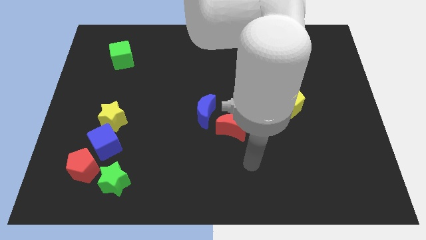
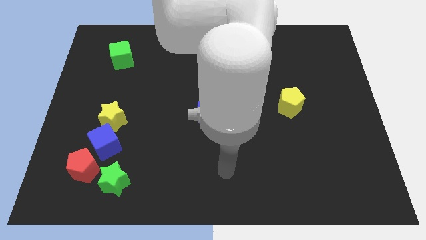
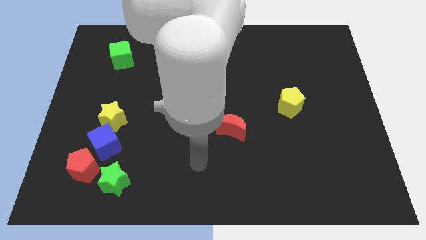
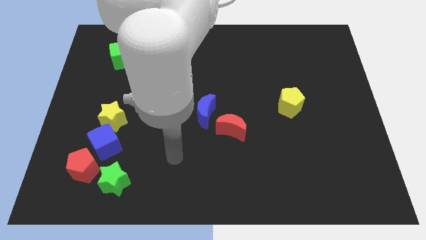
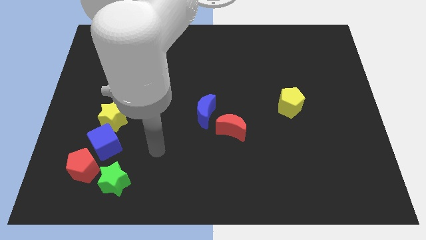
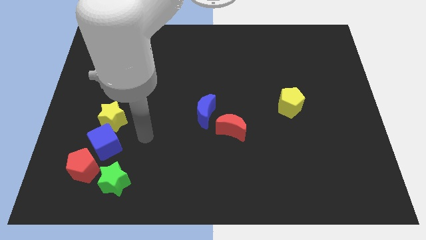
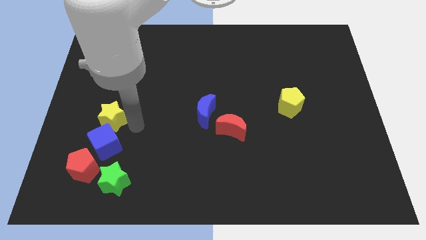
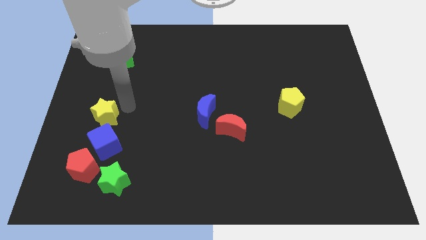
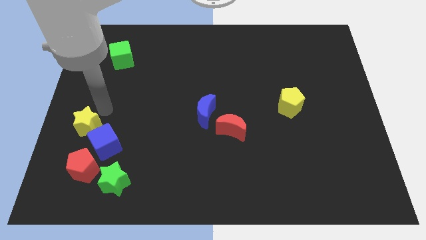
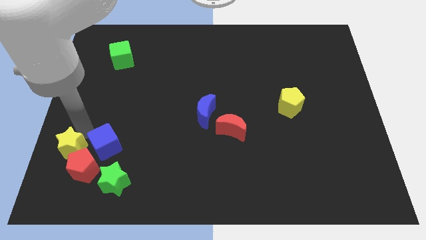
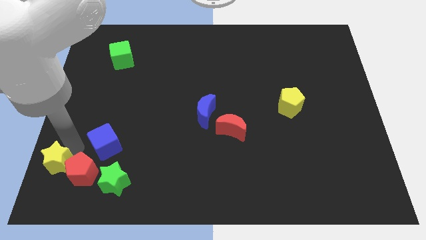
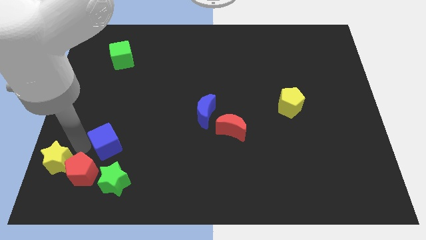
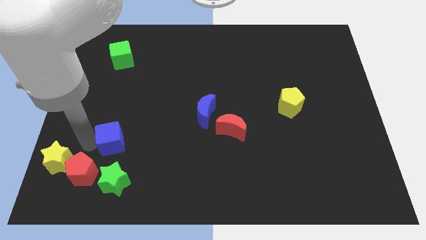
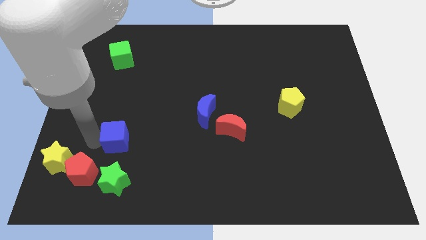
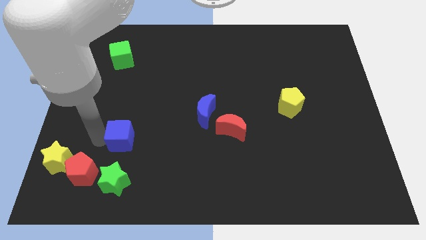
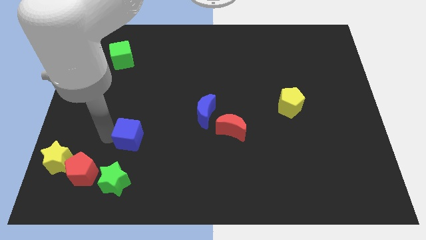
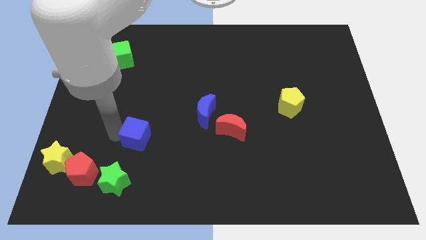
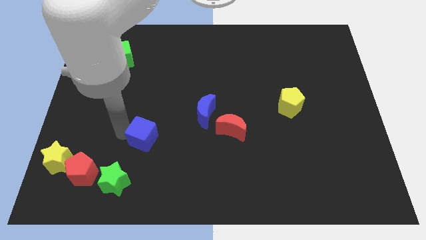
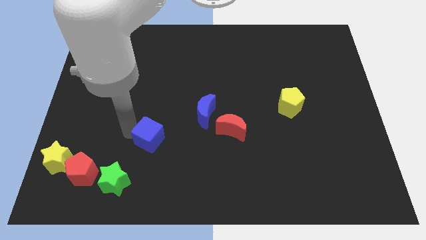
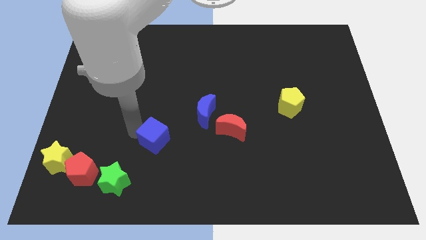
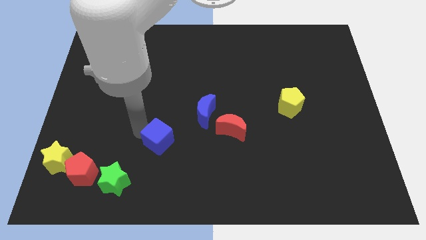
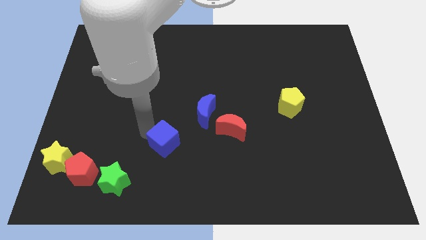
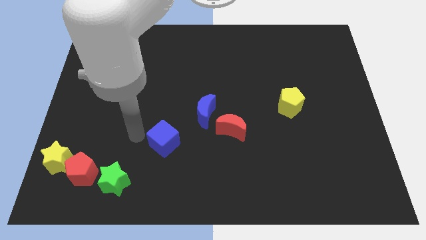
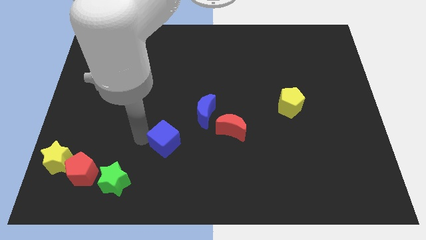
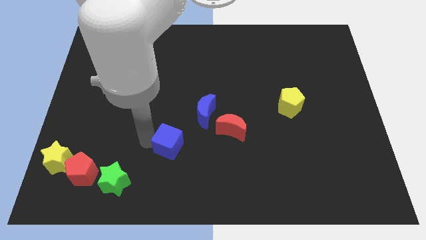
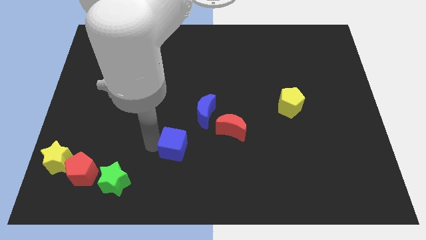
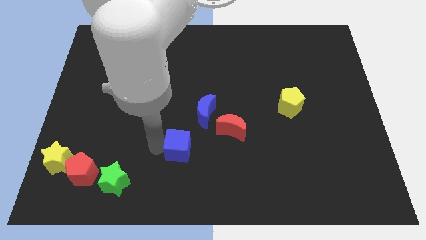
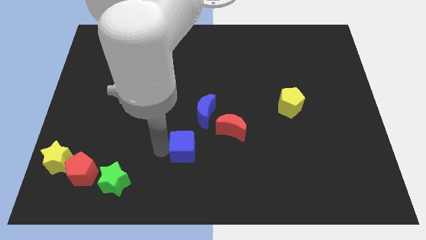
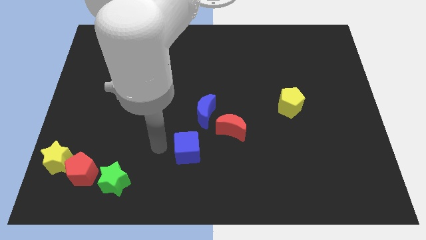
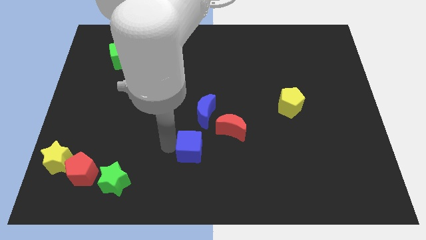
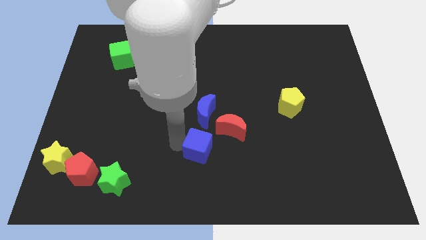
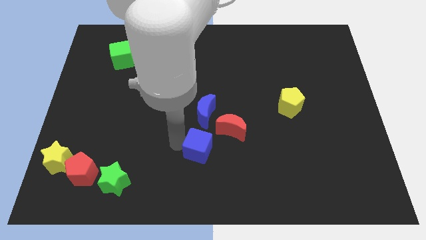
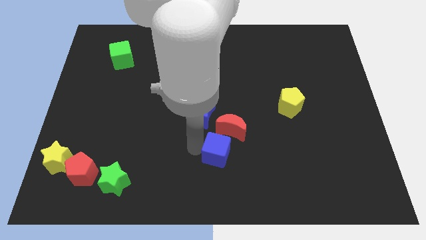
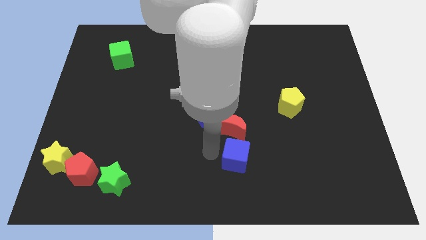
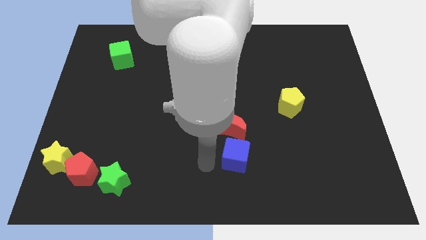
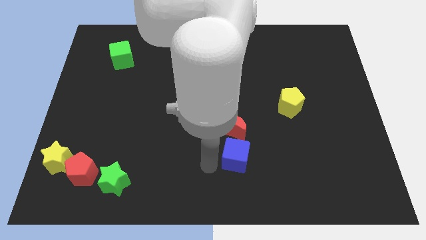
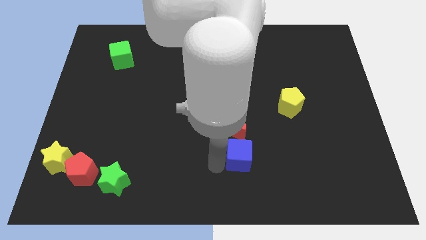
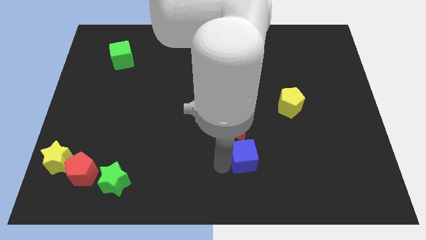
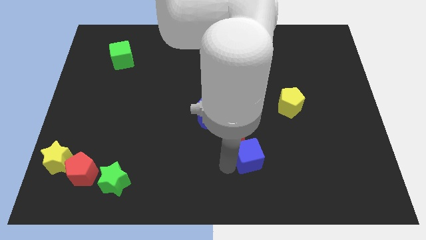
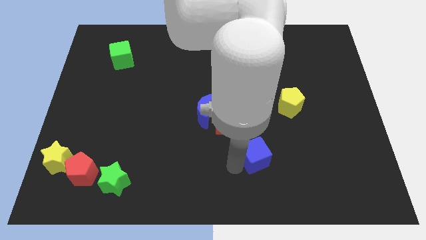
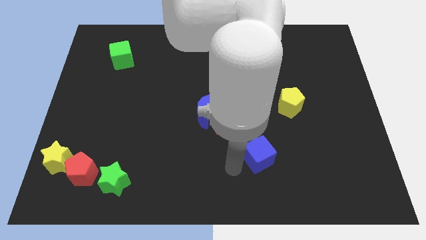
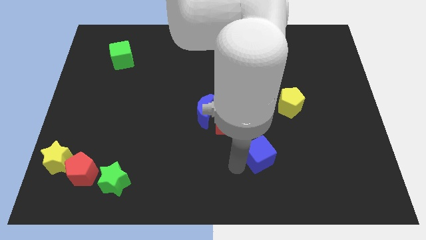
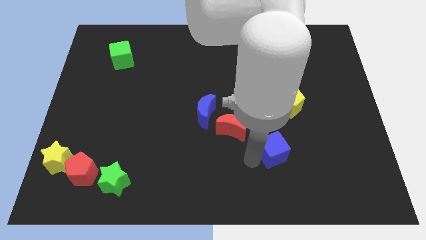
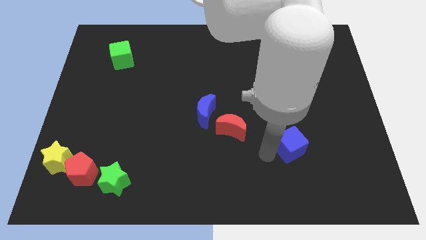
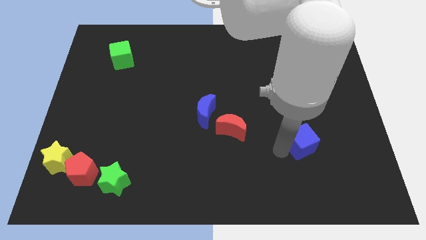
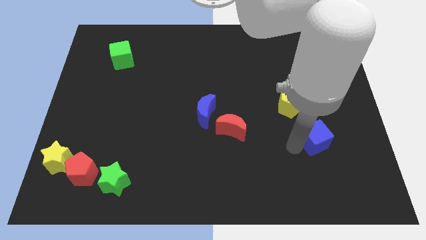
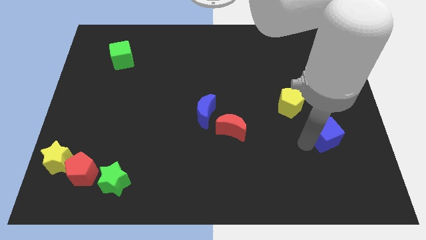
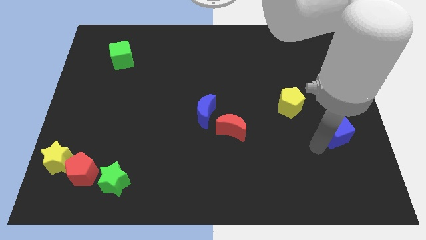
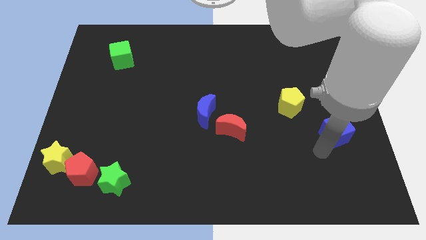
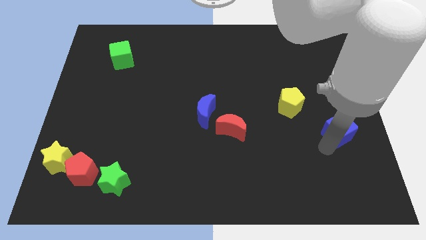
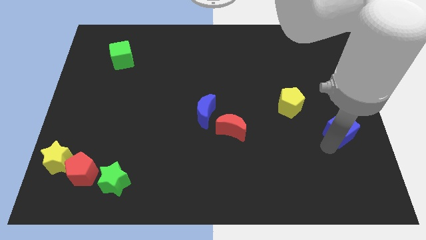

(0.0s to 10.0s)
slide the blue cube to the right side of the board

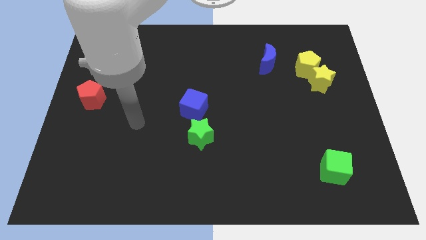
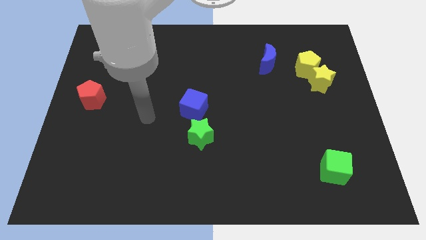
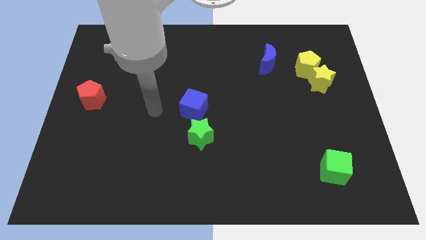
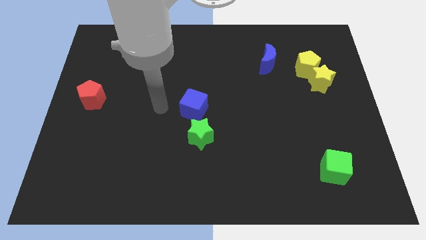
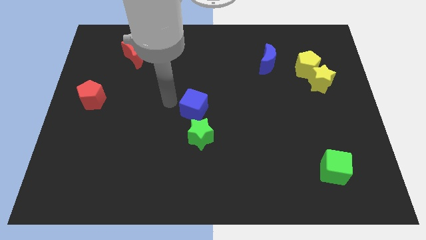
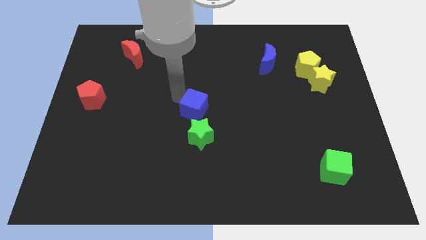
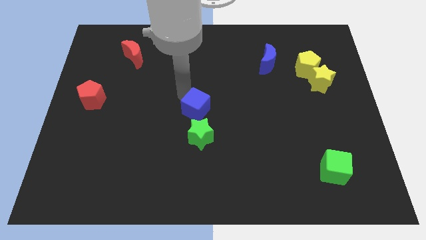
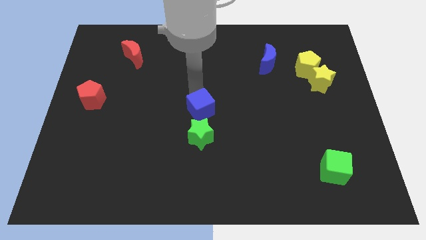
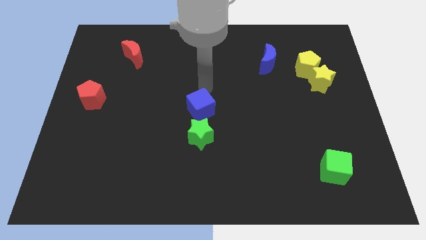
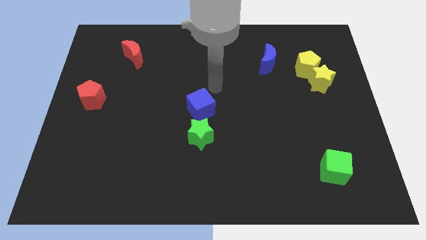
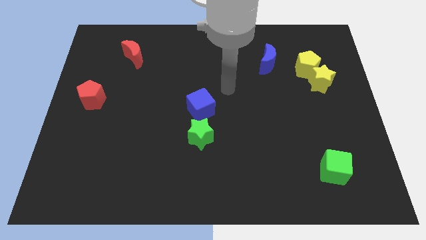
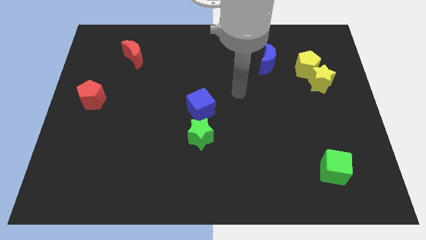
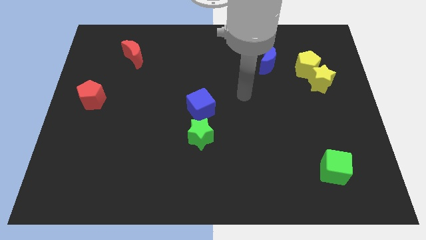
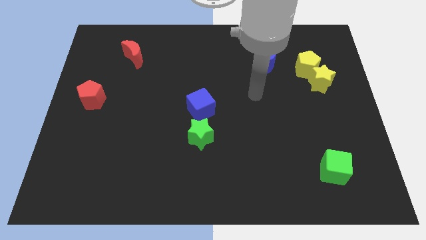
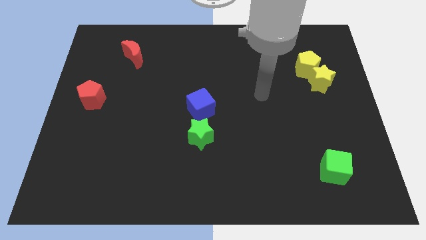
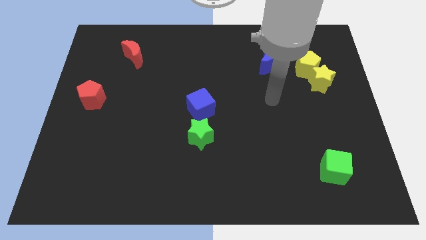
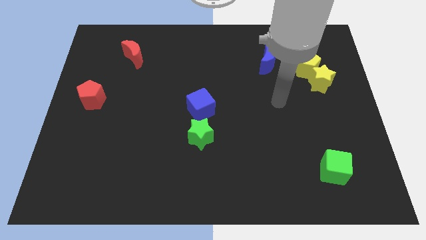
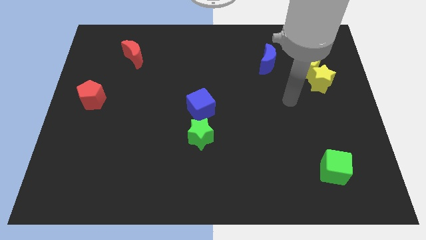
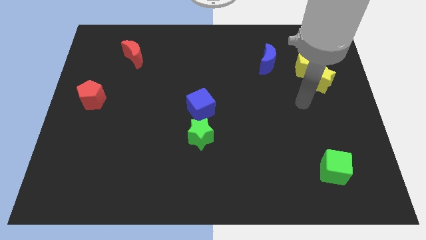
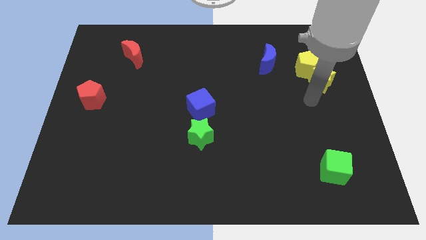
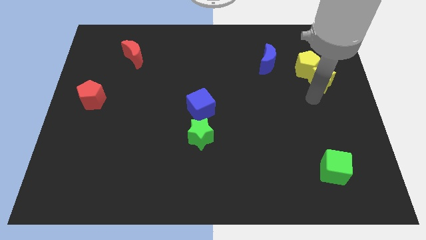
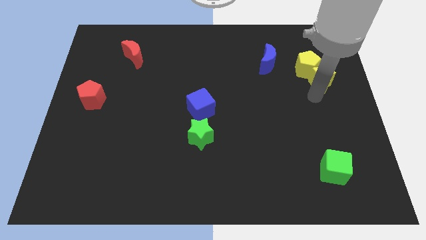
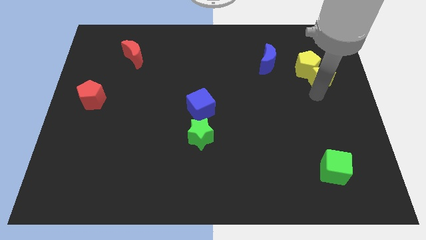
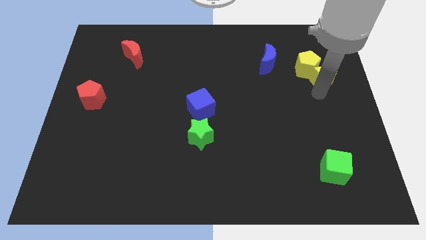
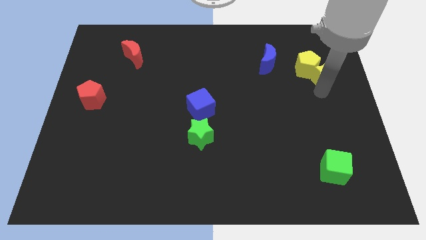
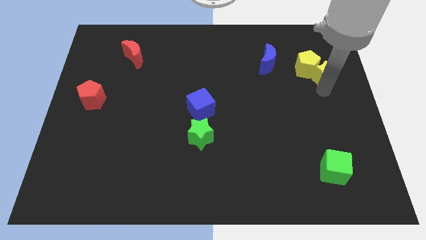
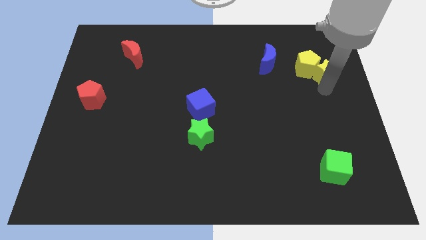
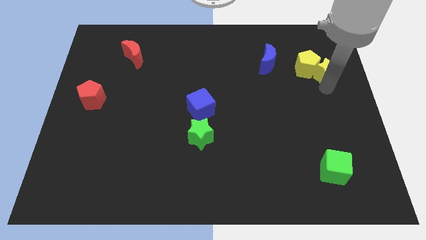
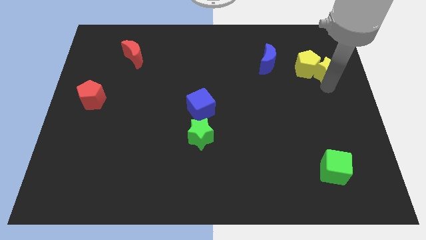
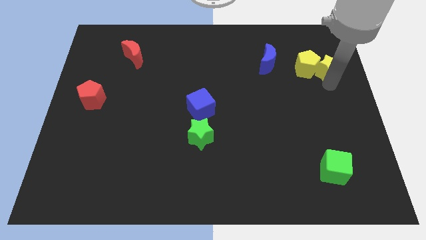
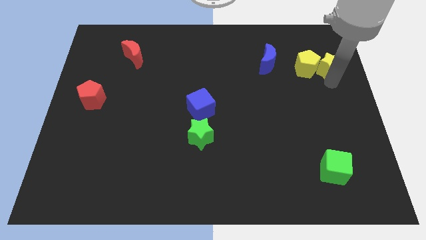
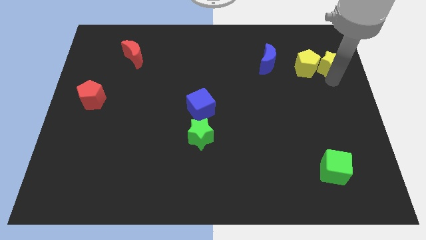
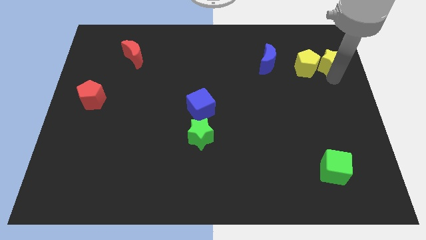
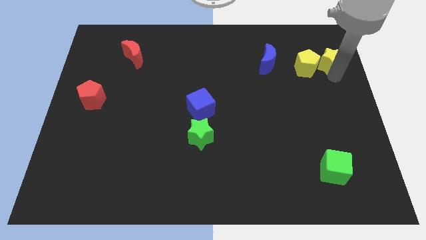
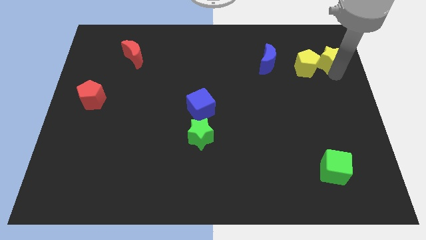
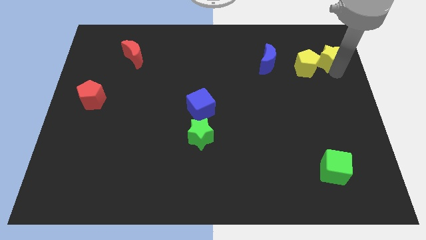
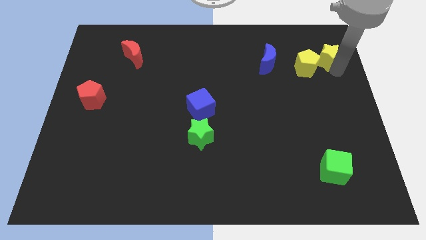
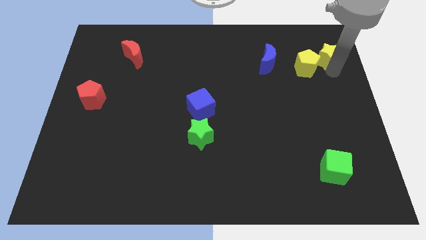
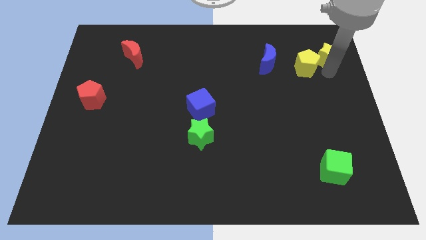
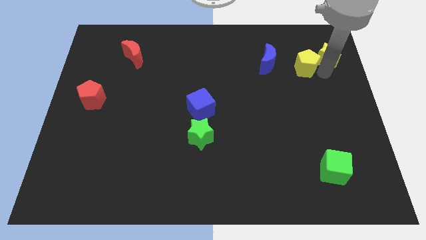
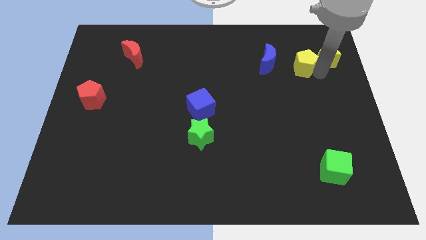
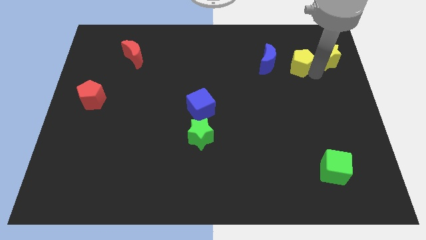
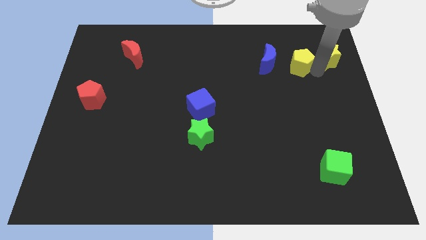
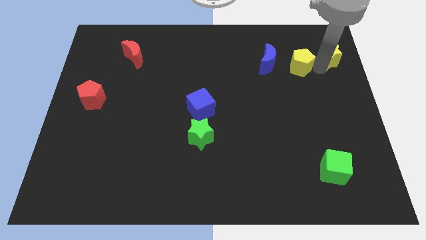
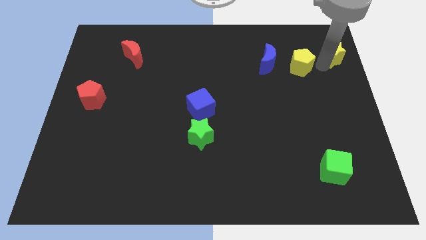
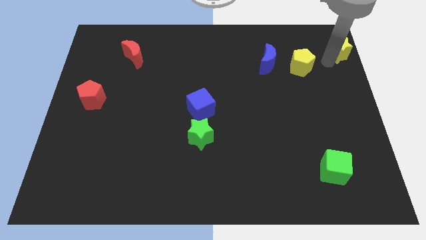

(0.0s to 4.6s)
slide the yellow star to the top right corner
